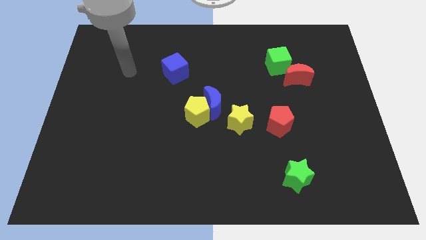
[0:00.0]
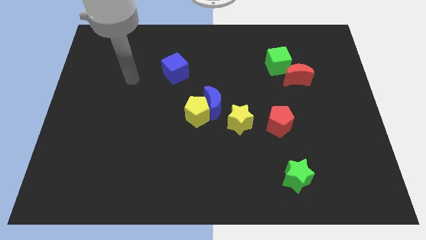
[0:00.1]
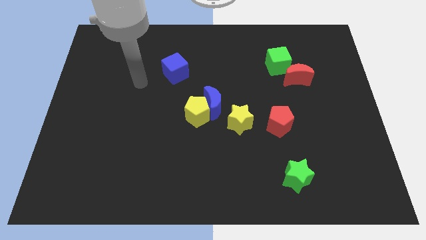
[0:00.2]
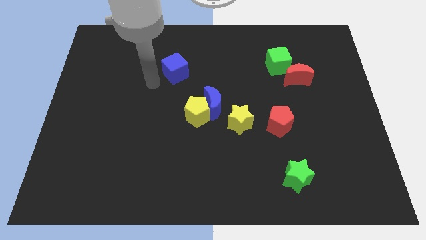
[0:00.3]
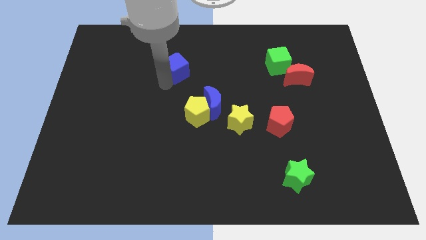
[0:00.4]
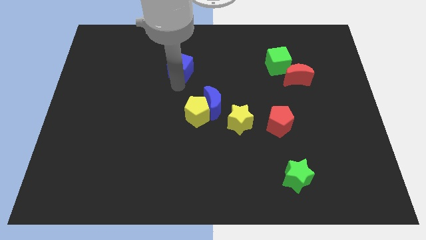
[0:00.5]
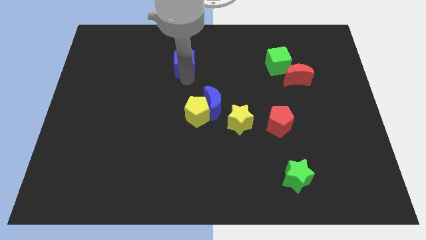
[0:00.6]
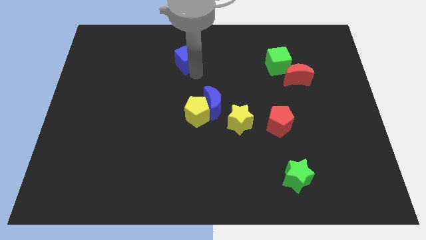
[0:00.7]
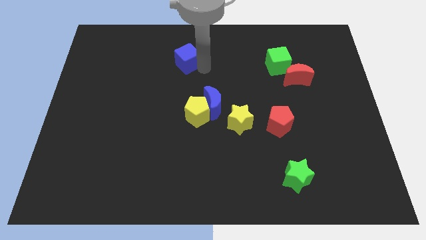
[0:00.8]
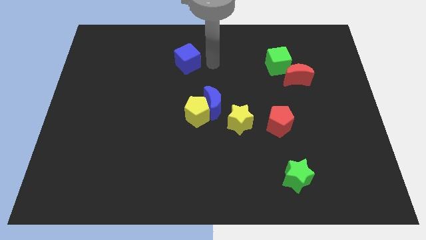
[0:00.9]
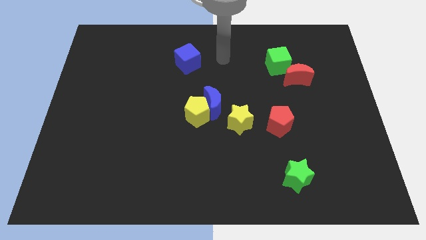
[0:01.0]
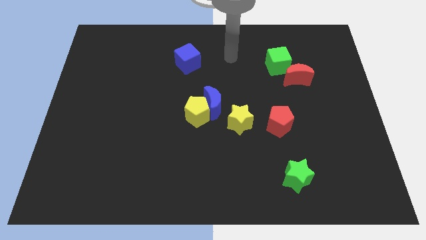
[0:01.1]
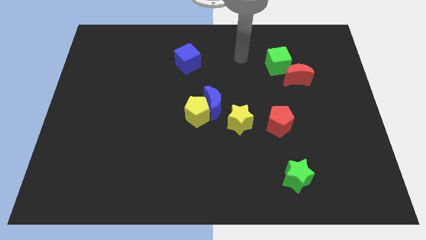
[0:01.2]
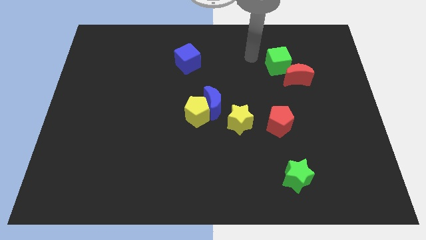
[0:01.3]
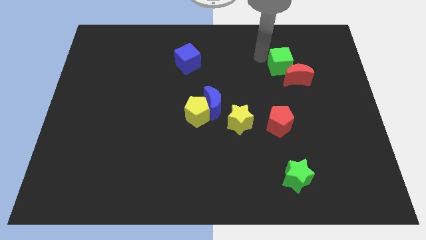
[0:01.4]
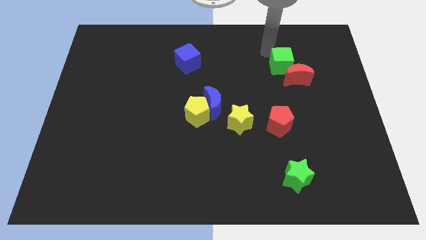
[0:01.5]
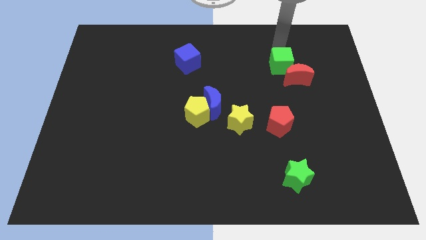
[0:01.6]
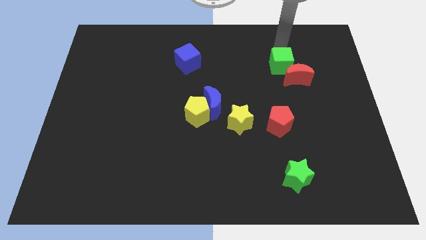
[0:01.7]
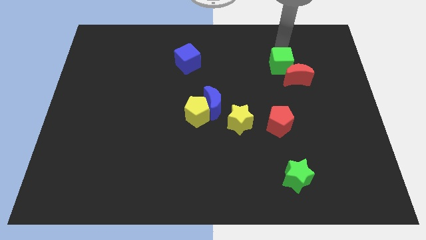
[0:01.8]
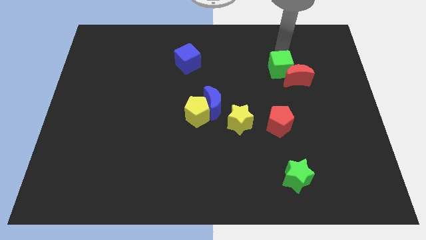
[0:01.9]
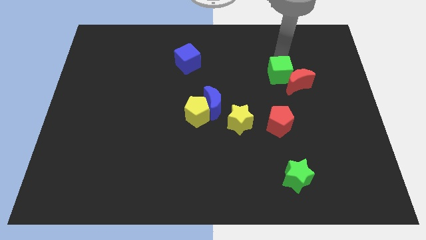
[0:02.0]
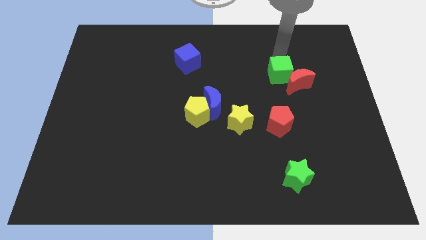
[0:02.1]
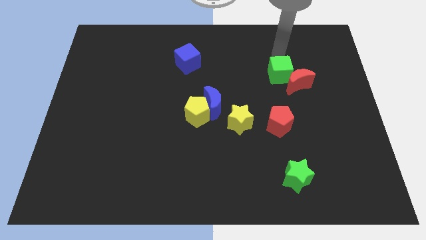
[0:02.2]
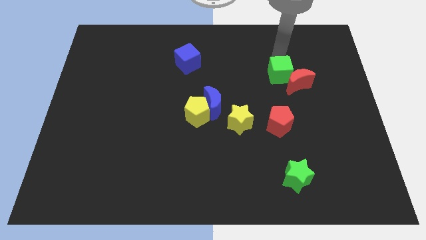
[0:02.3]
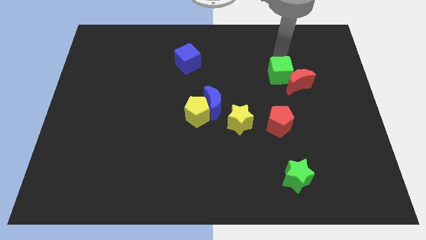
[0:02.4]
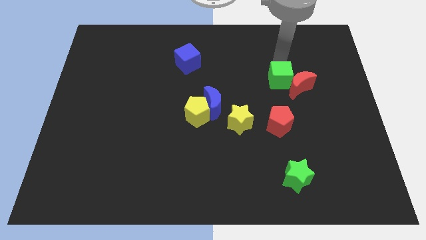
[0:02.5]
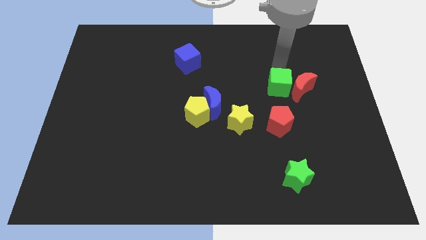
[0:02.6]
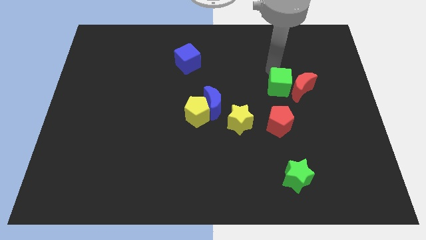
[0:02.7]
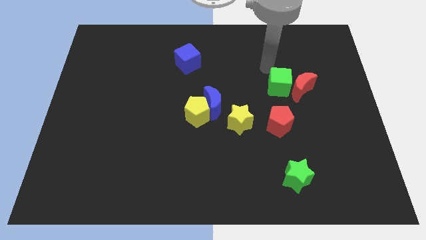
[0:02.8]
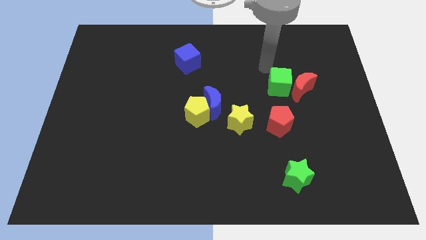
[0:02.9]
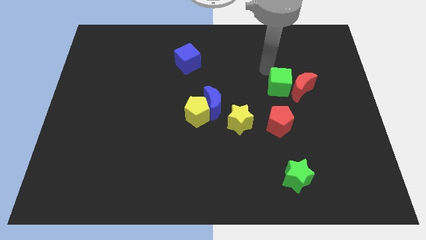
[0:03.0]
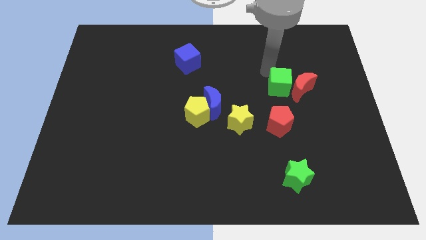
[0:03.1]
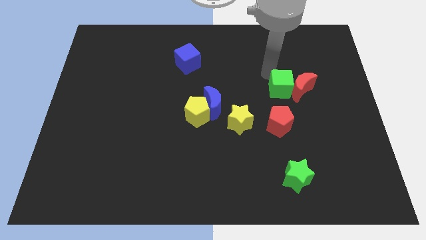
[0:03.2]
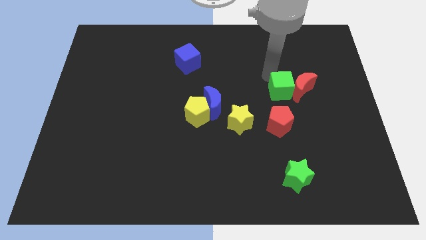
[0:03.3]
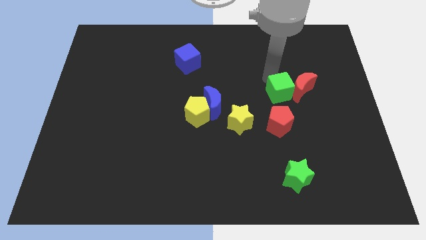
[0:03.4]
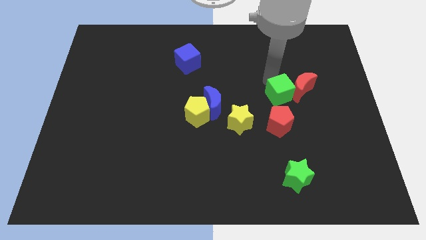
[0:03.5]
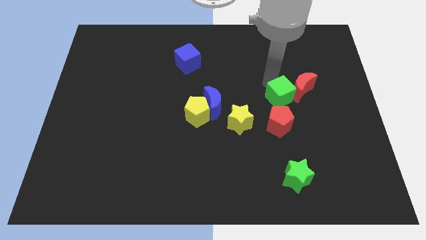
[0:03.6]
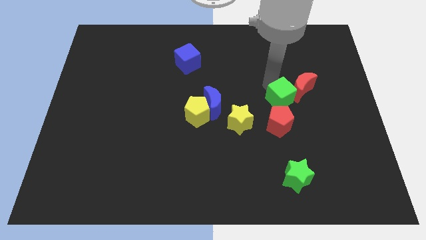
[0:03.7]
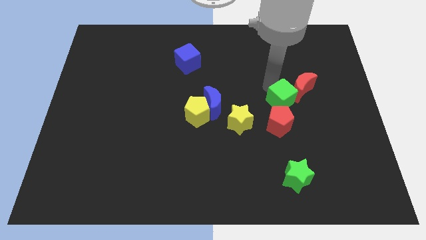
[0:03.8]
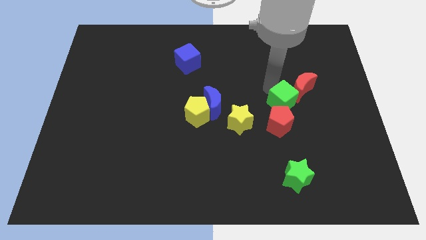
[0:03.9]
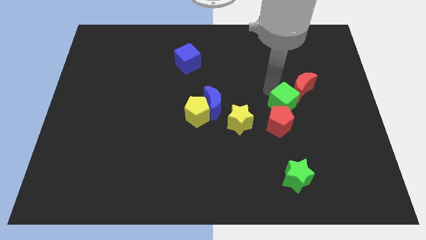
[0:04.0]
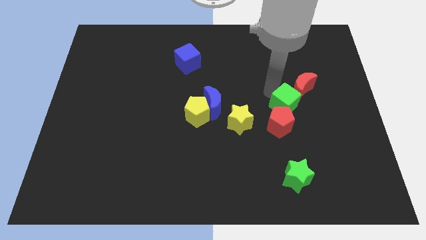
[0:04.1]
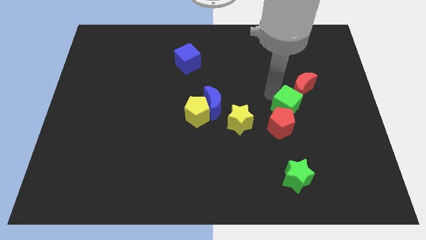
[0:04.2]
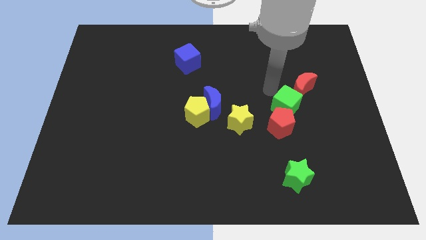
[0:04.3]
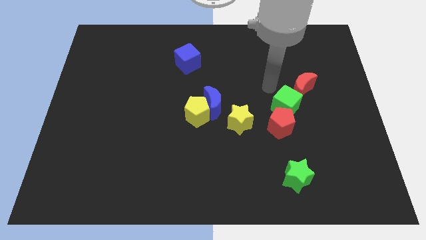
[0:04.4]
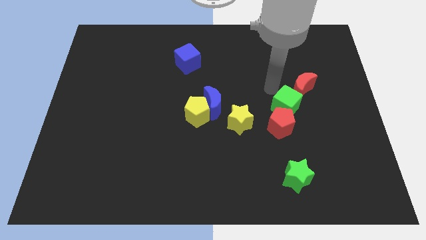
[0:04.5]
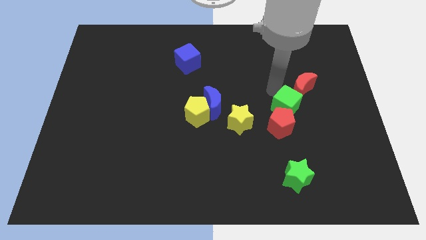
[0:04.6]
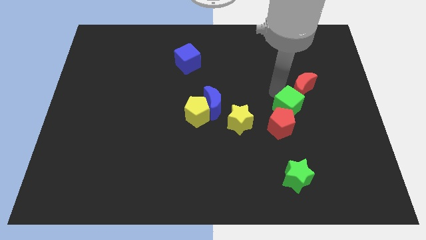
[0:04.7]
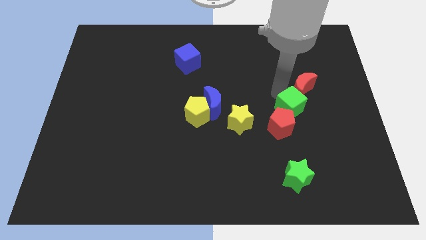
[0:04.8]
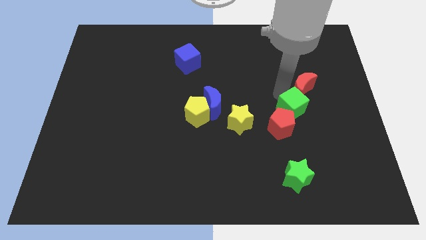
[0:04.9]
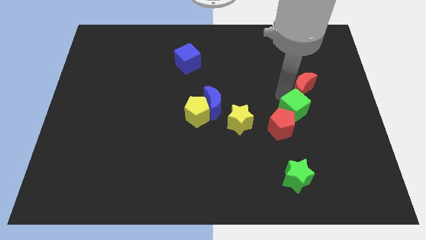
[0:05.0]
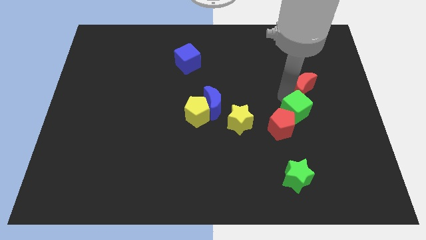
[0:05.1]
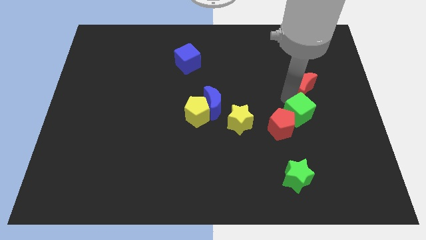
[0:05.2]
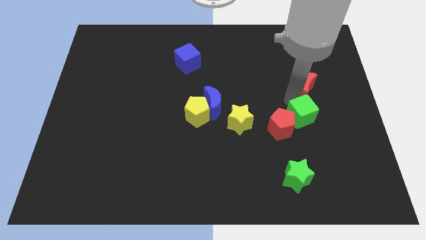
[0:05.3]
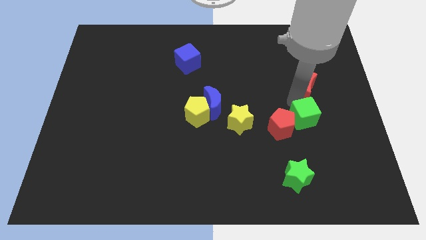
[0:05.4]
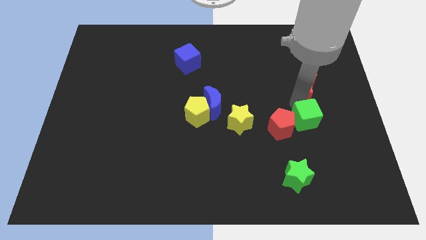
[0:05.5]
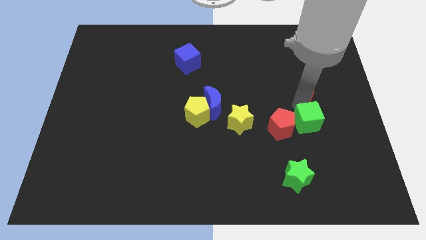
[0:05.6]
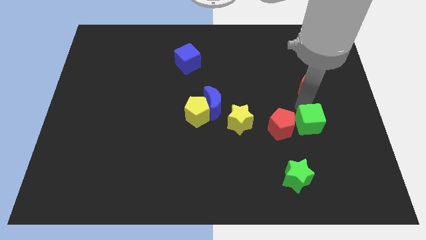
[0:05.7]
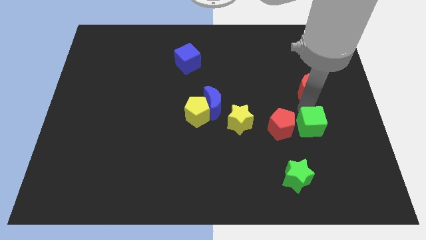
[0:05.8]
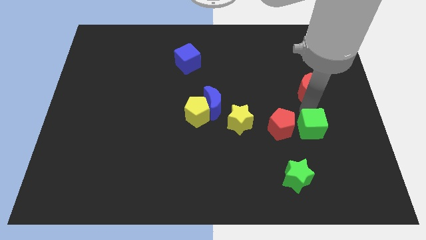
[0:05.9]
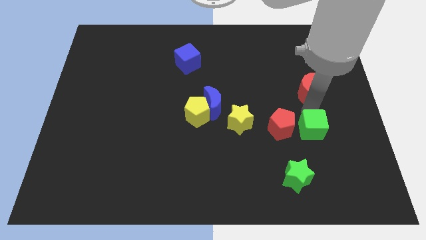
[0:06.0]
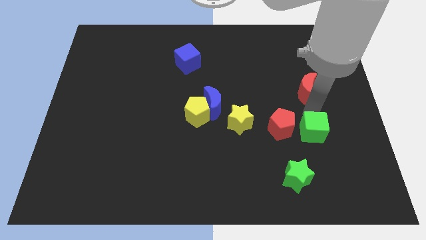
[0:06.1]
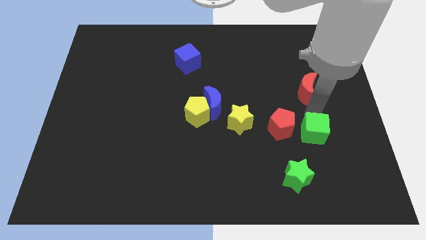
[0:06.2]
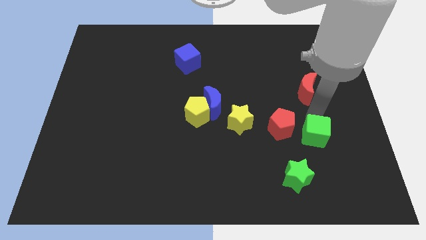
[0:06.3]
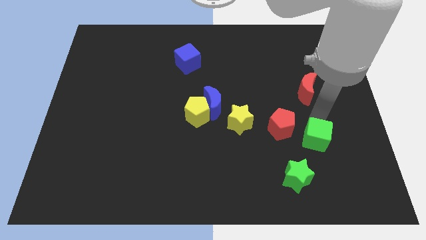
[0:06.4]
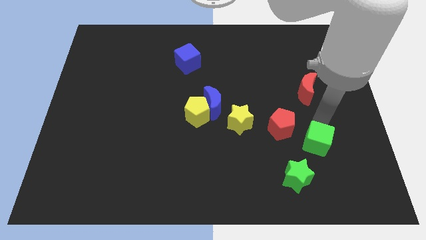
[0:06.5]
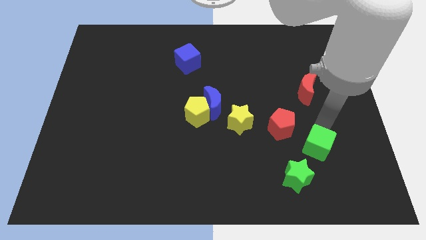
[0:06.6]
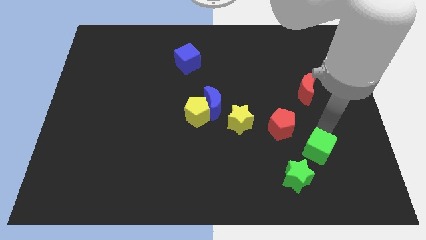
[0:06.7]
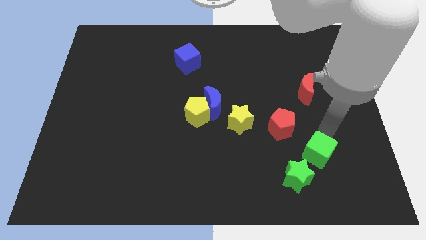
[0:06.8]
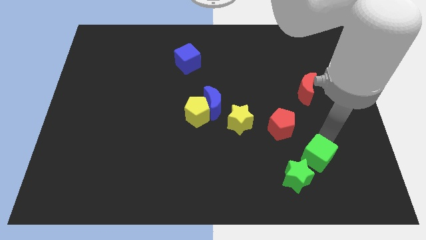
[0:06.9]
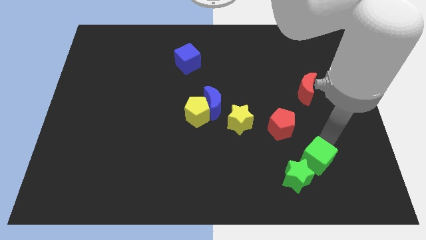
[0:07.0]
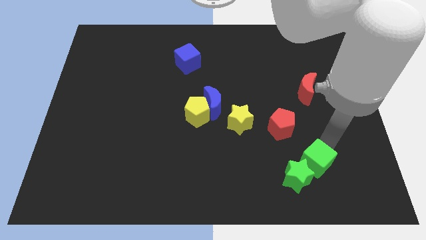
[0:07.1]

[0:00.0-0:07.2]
push the green cube towards the green star

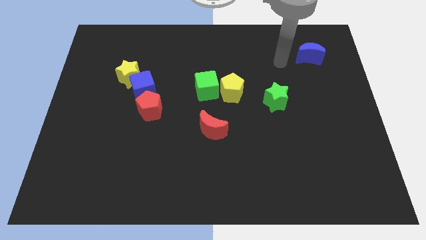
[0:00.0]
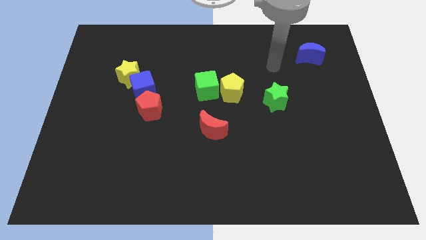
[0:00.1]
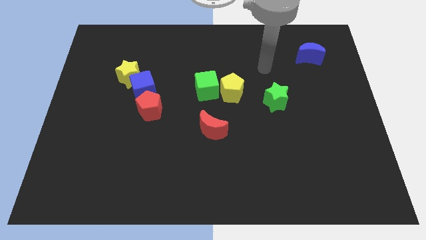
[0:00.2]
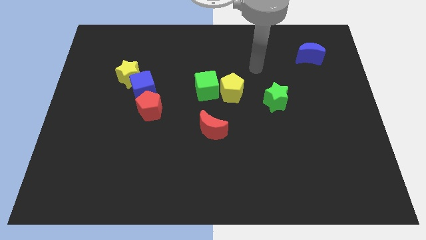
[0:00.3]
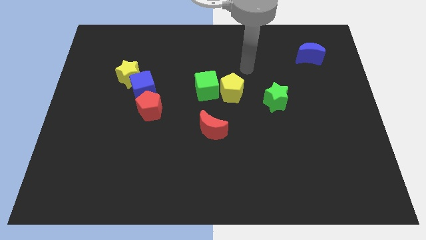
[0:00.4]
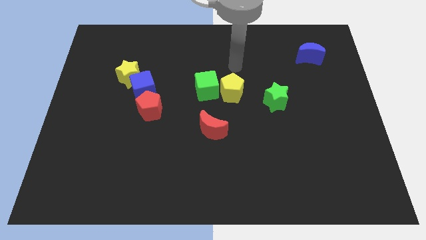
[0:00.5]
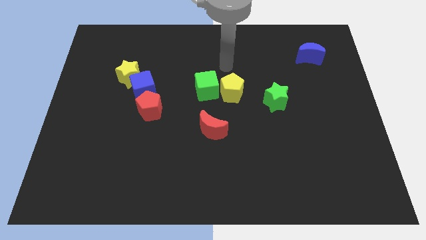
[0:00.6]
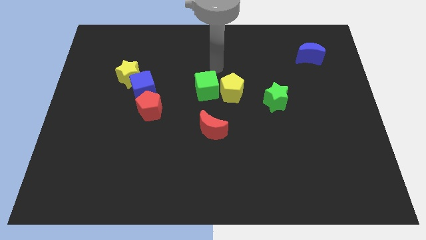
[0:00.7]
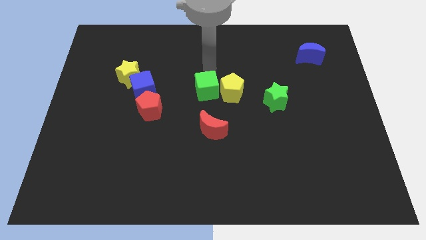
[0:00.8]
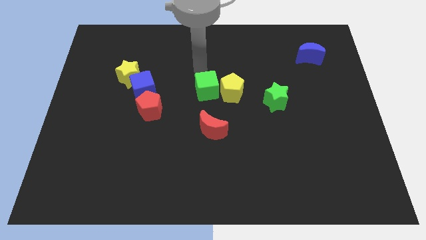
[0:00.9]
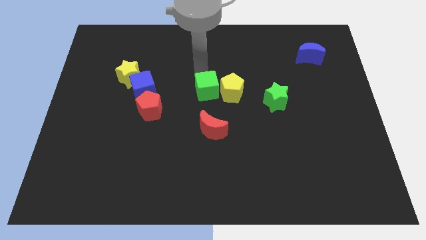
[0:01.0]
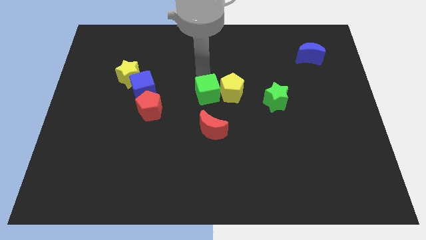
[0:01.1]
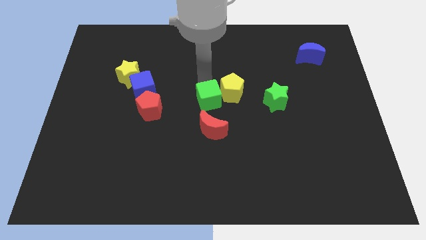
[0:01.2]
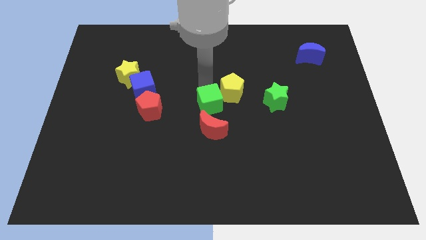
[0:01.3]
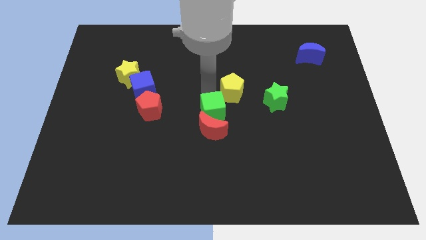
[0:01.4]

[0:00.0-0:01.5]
put the green cube towards the red moon
